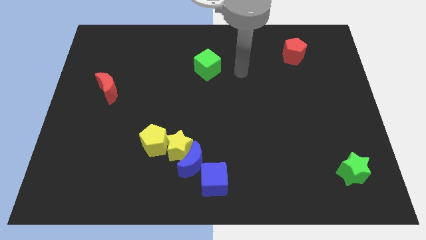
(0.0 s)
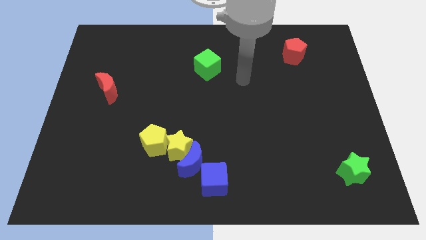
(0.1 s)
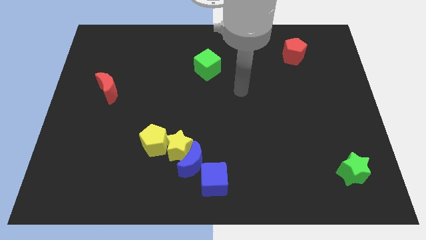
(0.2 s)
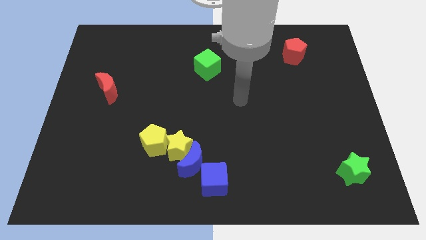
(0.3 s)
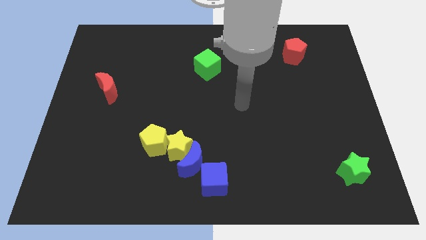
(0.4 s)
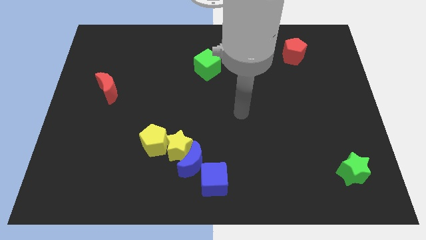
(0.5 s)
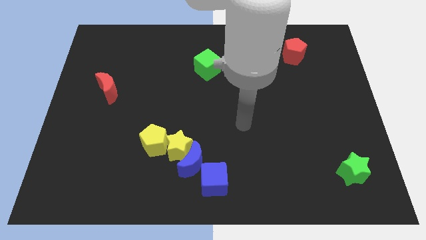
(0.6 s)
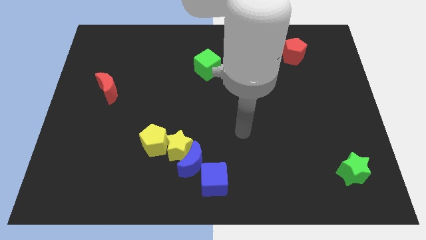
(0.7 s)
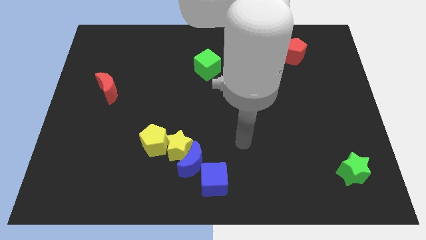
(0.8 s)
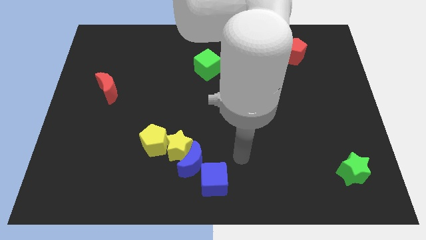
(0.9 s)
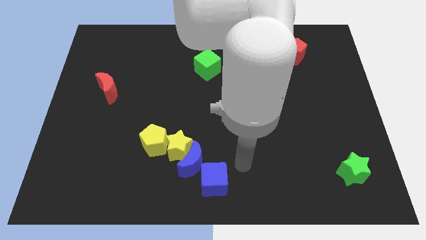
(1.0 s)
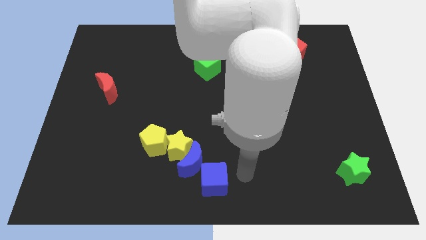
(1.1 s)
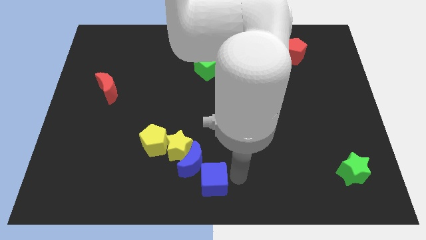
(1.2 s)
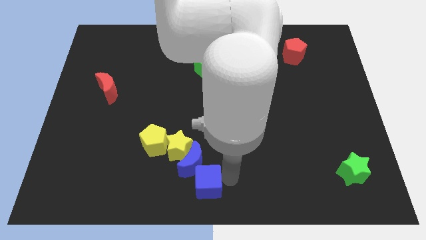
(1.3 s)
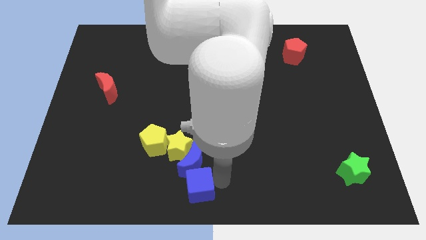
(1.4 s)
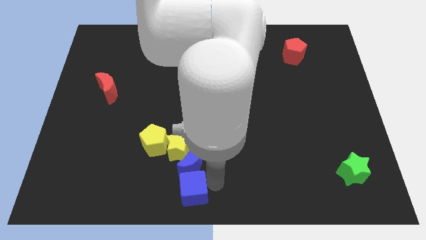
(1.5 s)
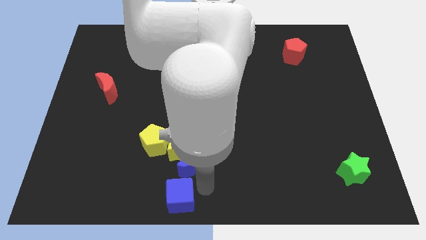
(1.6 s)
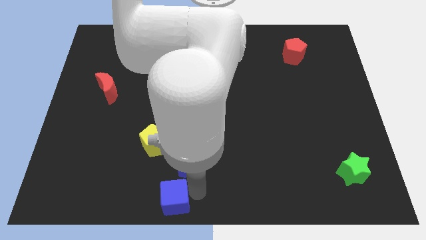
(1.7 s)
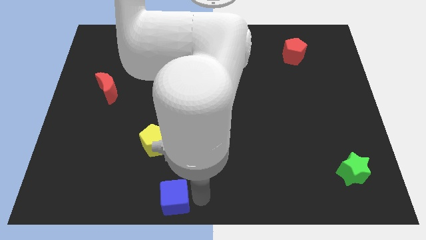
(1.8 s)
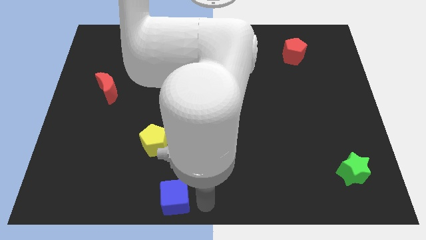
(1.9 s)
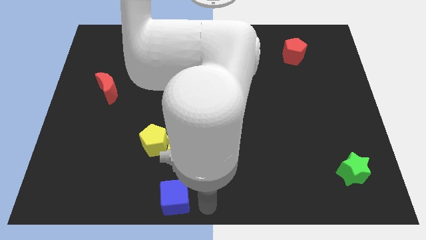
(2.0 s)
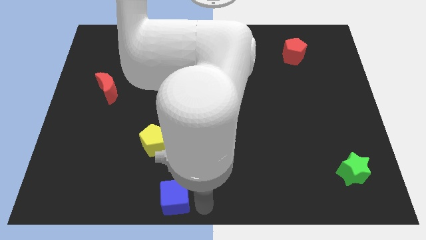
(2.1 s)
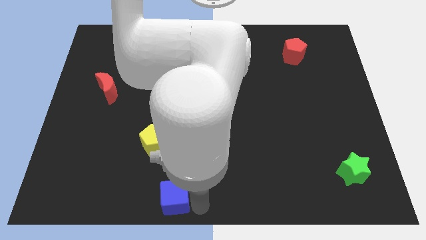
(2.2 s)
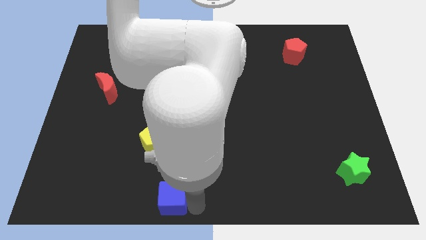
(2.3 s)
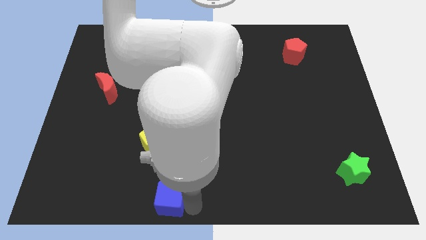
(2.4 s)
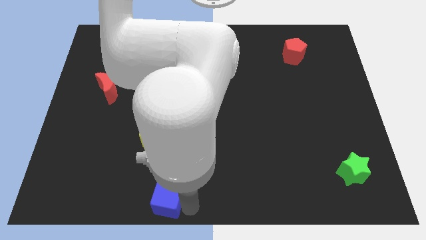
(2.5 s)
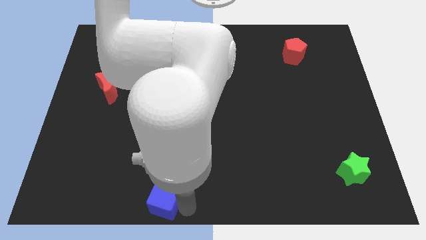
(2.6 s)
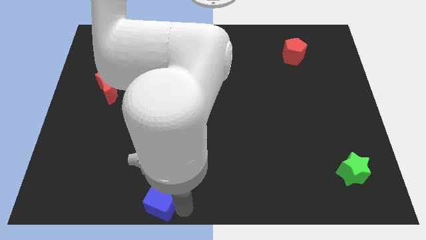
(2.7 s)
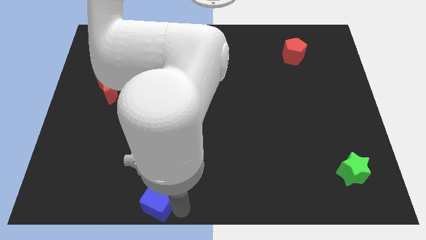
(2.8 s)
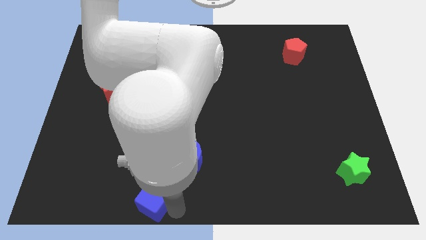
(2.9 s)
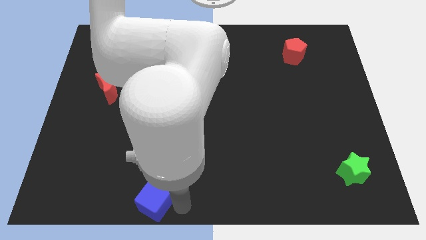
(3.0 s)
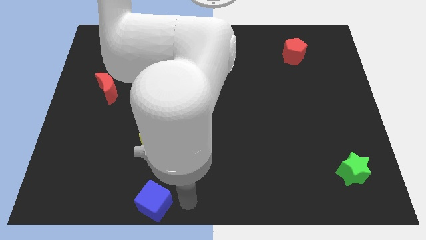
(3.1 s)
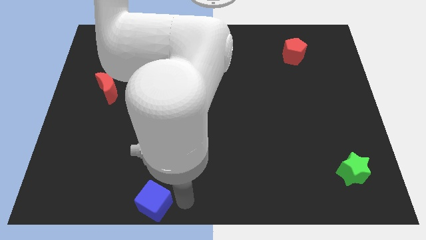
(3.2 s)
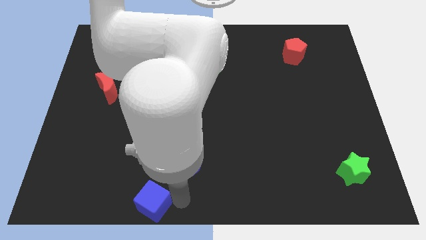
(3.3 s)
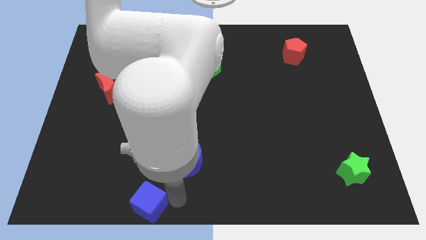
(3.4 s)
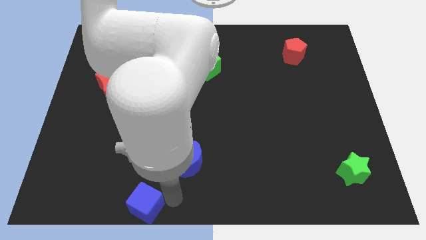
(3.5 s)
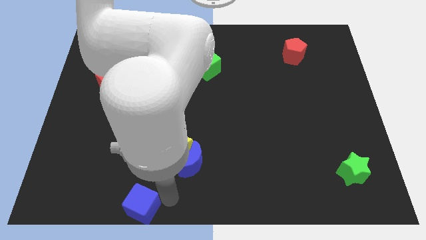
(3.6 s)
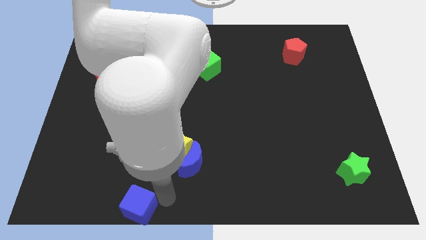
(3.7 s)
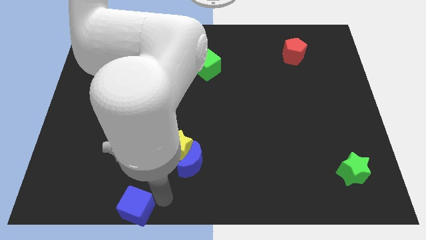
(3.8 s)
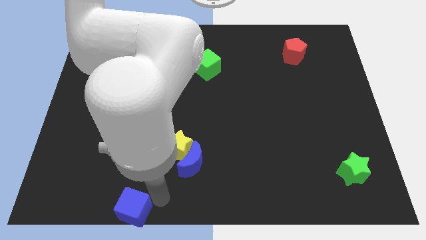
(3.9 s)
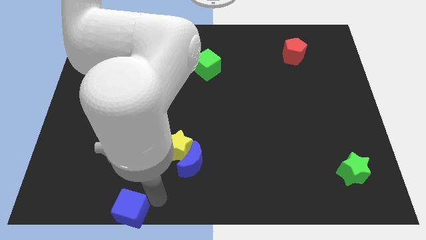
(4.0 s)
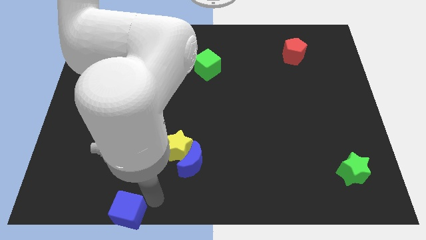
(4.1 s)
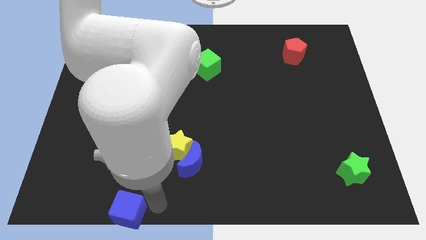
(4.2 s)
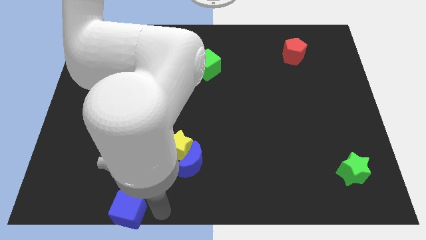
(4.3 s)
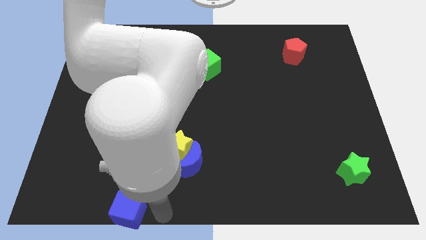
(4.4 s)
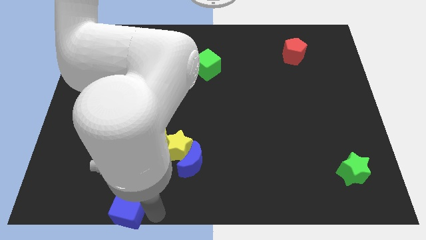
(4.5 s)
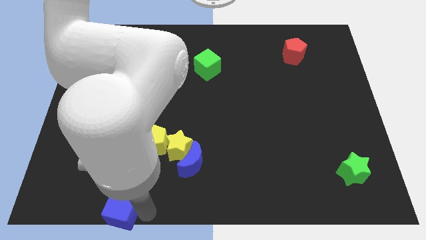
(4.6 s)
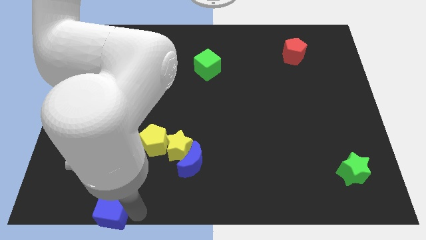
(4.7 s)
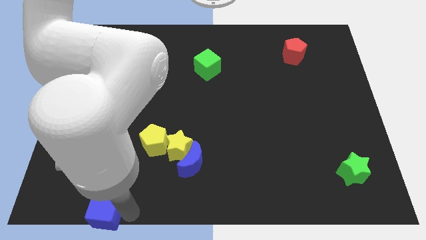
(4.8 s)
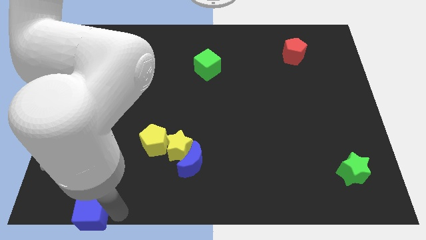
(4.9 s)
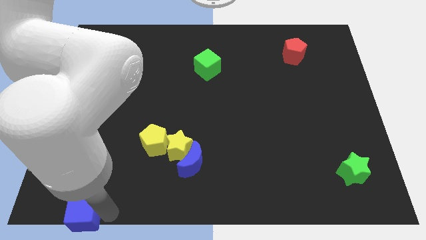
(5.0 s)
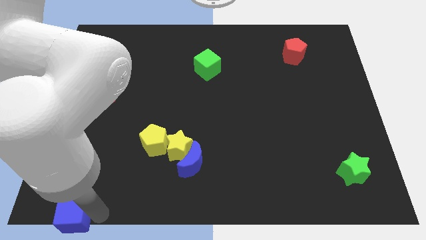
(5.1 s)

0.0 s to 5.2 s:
push the blue cube to the bottom left

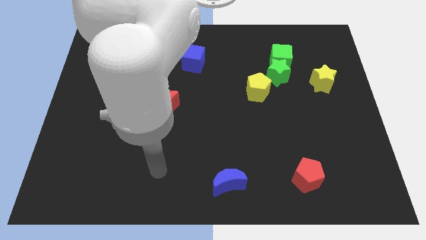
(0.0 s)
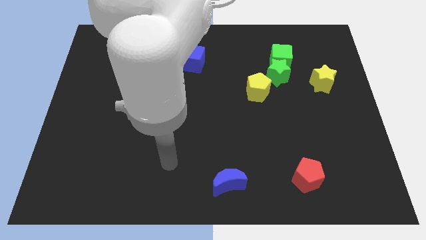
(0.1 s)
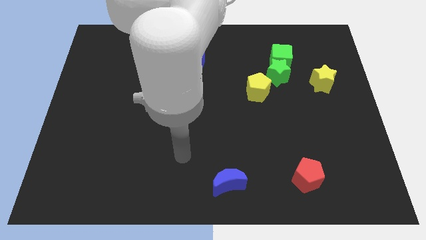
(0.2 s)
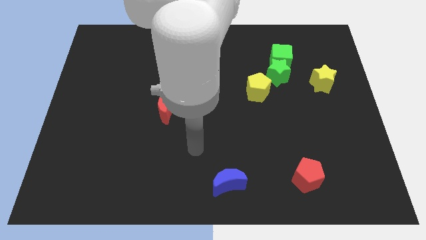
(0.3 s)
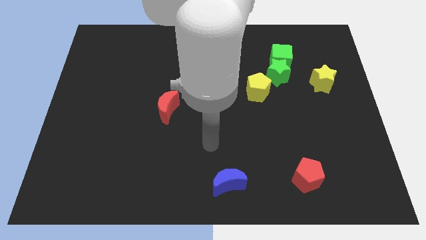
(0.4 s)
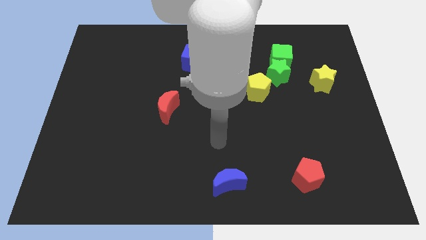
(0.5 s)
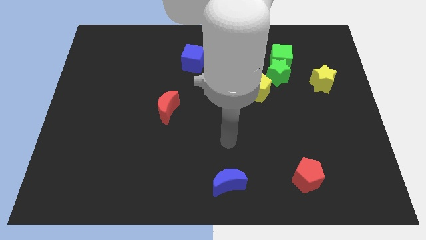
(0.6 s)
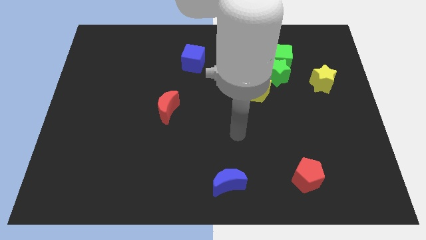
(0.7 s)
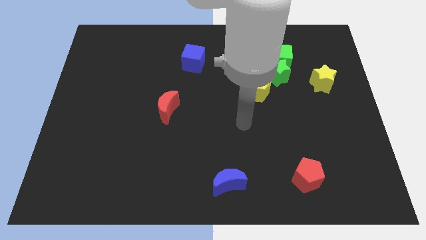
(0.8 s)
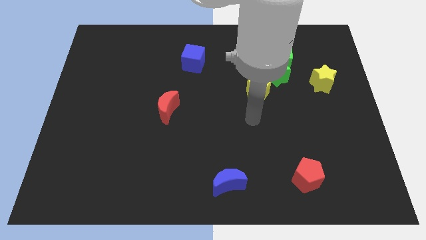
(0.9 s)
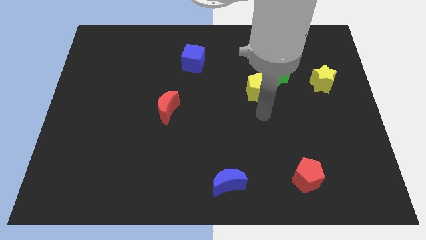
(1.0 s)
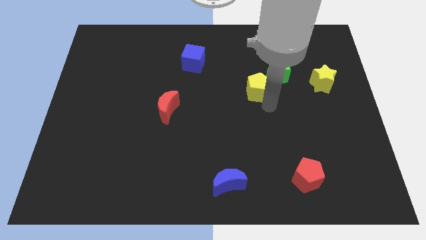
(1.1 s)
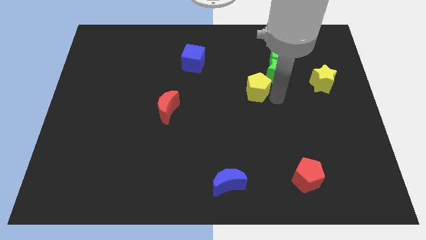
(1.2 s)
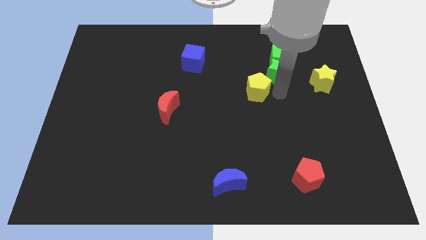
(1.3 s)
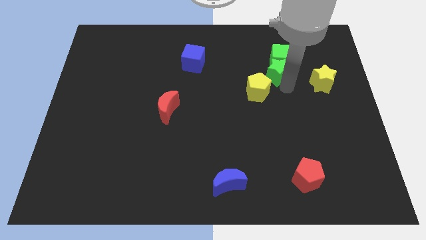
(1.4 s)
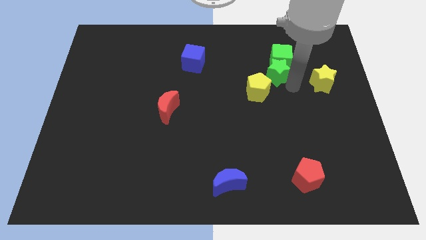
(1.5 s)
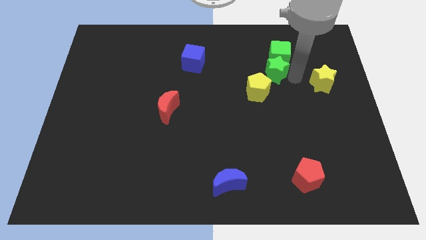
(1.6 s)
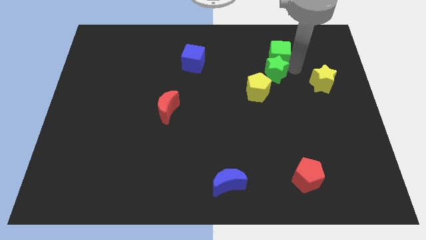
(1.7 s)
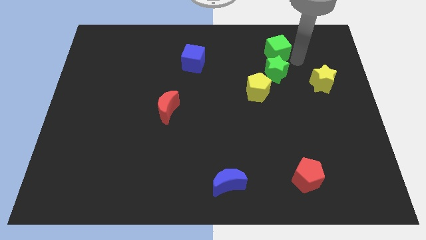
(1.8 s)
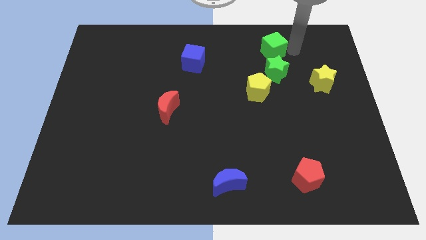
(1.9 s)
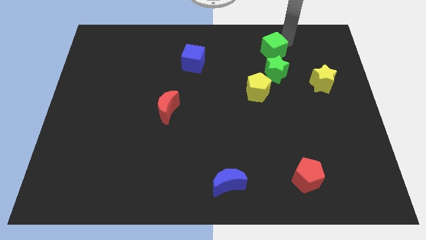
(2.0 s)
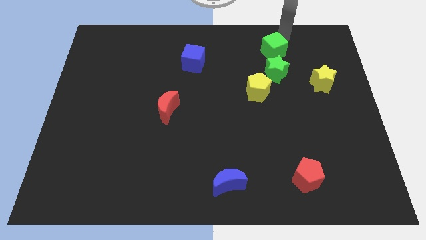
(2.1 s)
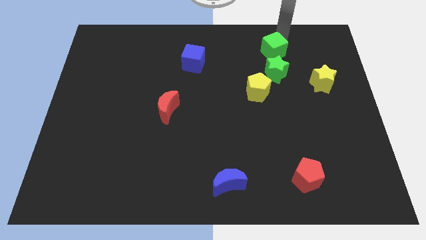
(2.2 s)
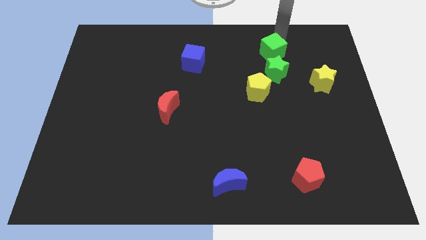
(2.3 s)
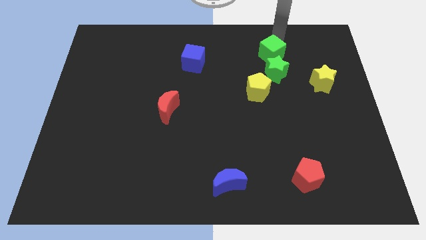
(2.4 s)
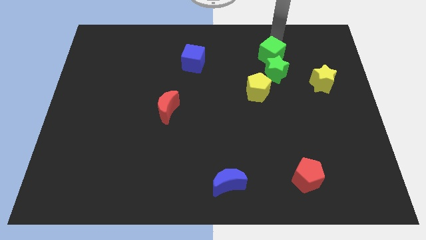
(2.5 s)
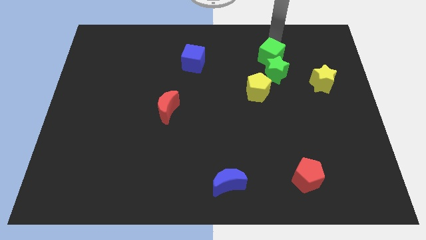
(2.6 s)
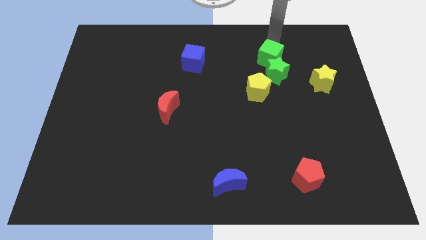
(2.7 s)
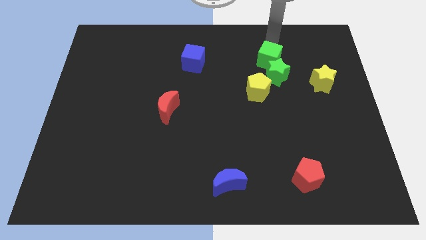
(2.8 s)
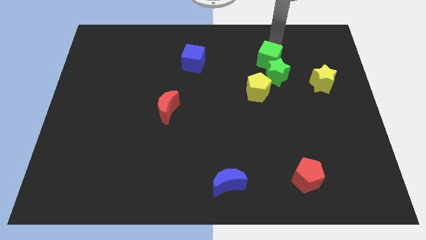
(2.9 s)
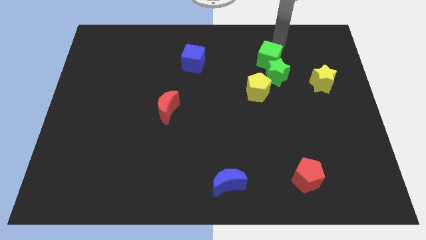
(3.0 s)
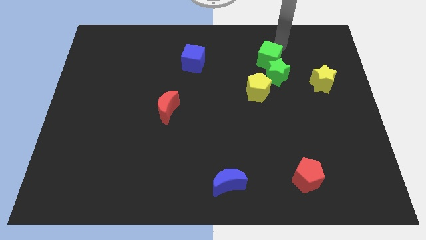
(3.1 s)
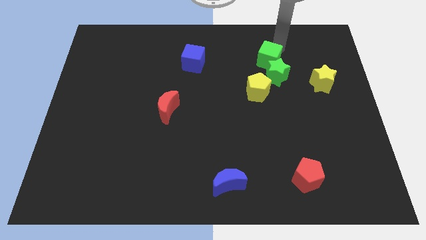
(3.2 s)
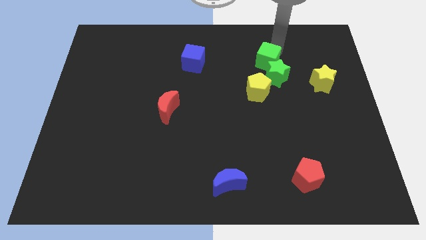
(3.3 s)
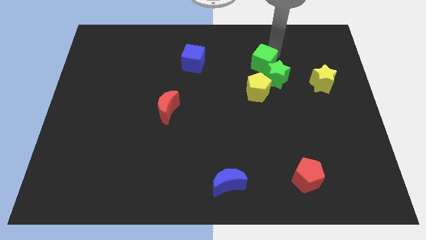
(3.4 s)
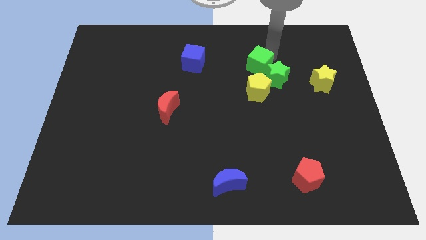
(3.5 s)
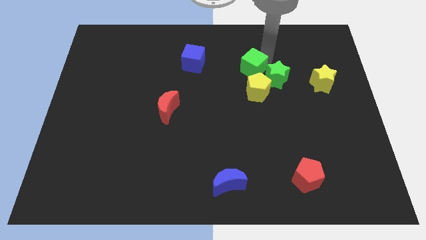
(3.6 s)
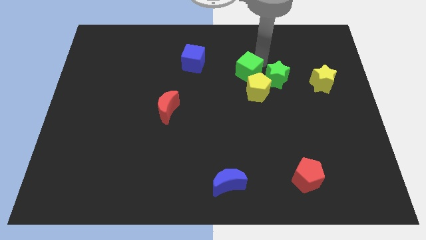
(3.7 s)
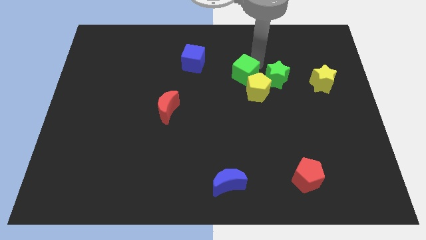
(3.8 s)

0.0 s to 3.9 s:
put the green cube to the center
